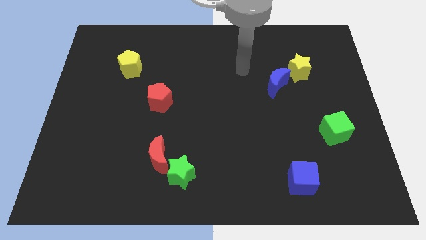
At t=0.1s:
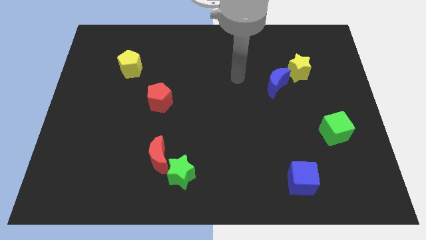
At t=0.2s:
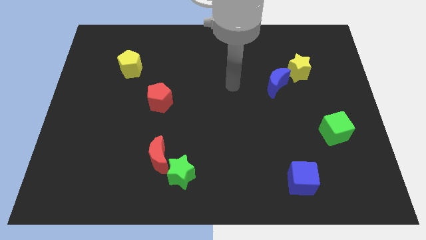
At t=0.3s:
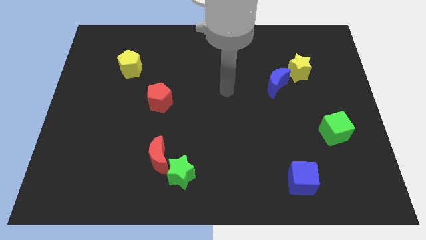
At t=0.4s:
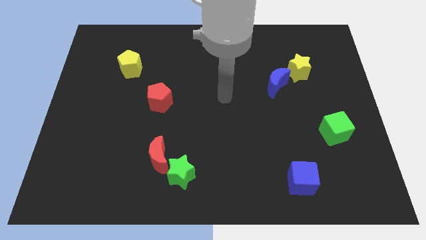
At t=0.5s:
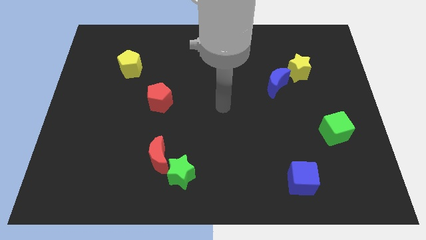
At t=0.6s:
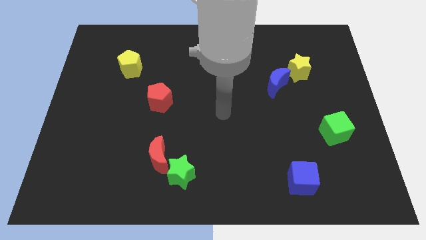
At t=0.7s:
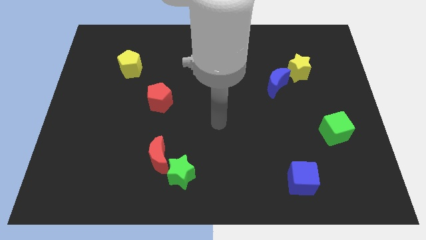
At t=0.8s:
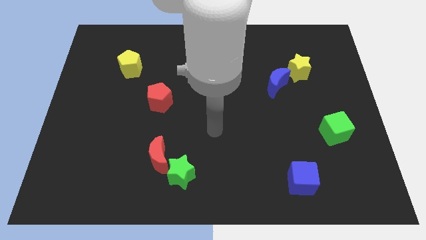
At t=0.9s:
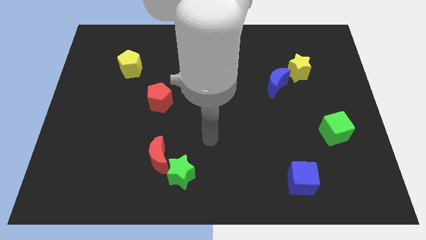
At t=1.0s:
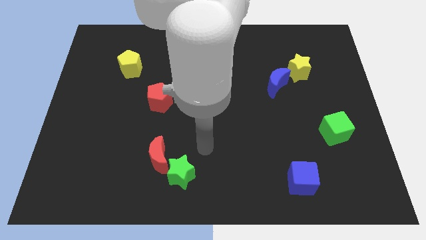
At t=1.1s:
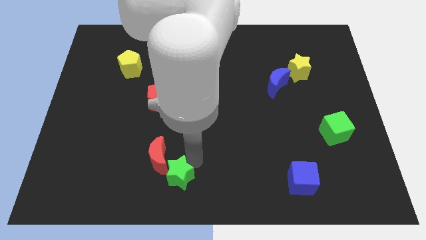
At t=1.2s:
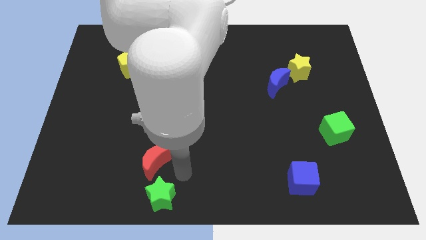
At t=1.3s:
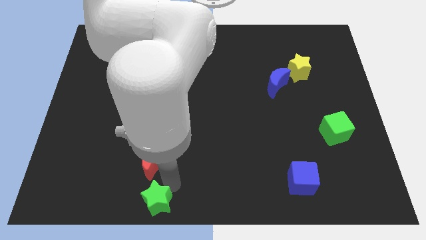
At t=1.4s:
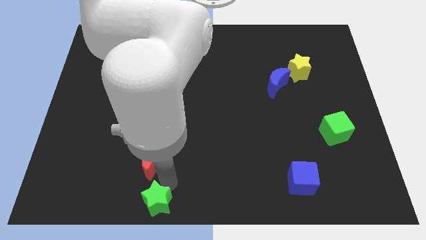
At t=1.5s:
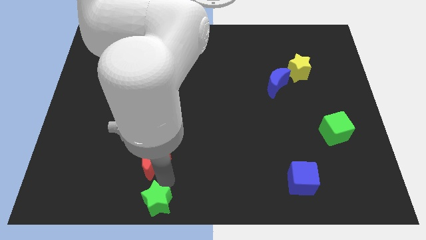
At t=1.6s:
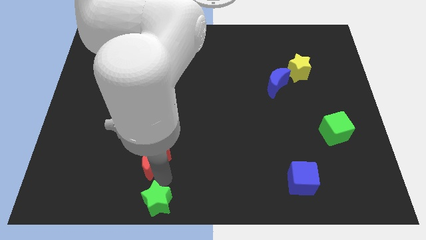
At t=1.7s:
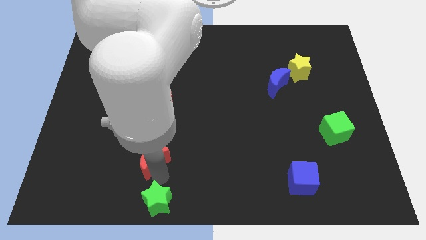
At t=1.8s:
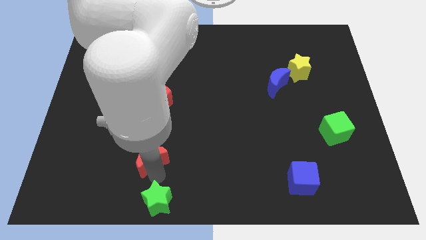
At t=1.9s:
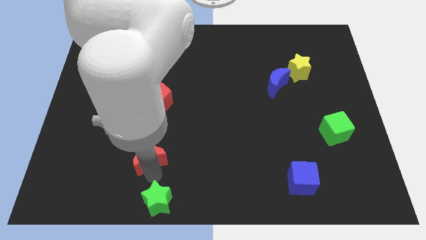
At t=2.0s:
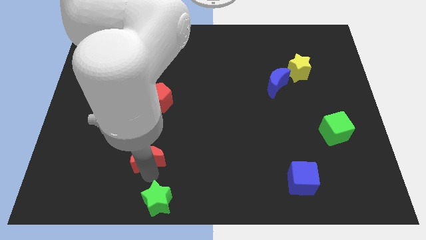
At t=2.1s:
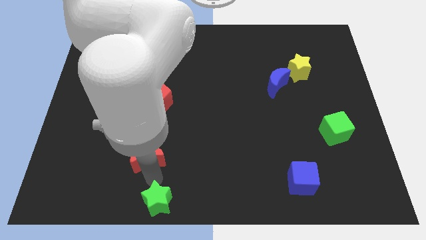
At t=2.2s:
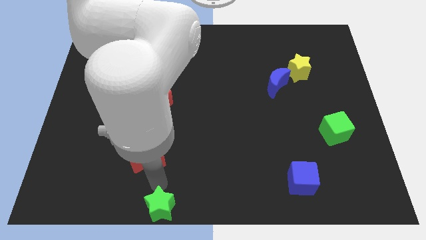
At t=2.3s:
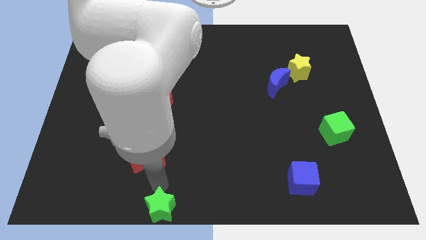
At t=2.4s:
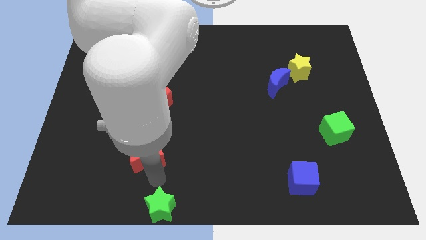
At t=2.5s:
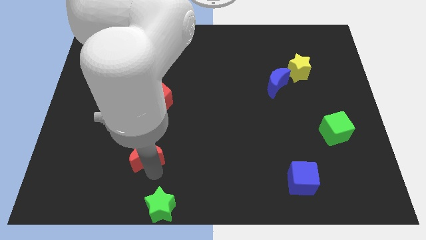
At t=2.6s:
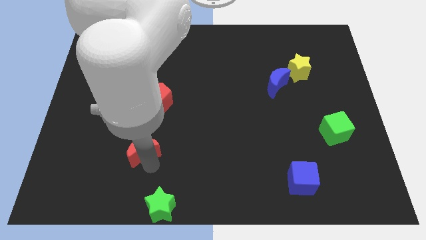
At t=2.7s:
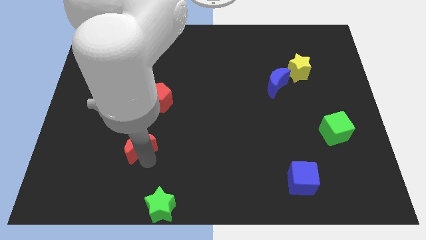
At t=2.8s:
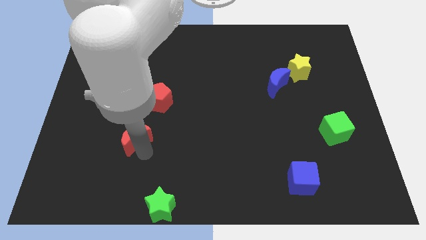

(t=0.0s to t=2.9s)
move the red moon diagonally upwards and left a bit

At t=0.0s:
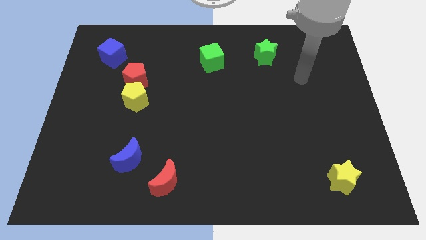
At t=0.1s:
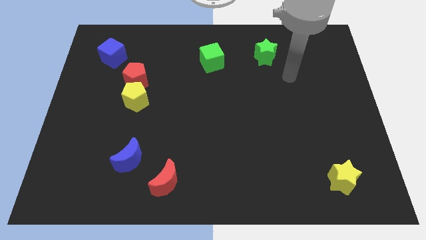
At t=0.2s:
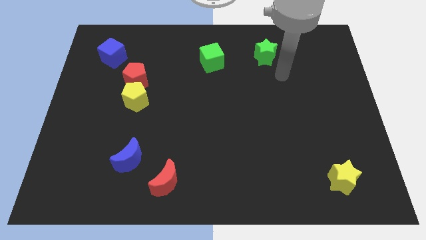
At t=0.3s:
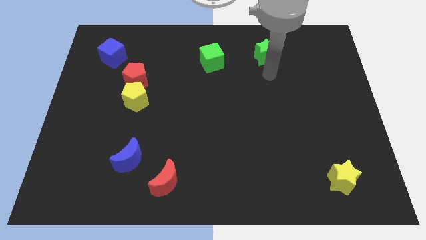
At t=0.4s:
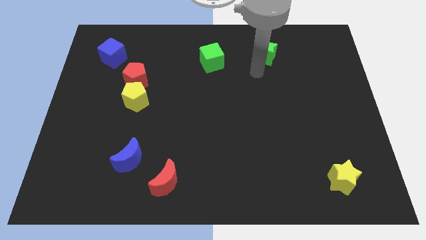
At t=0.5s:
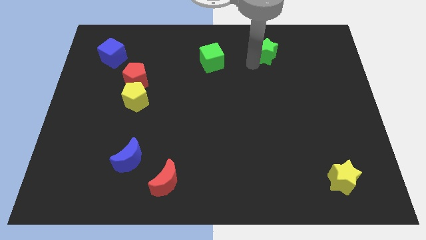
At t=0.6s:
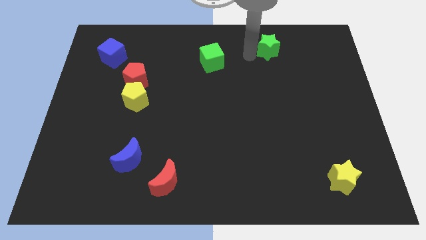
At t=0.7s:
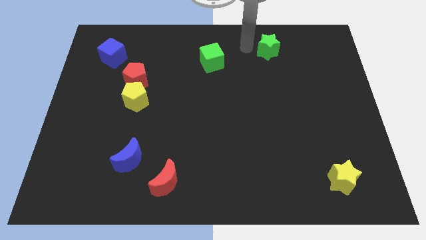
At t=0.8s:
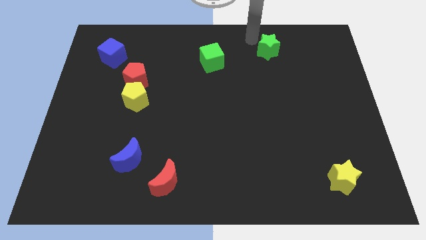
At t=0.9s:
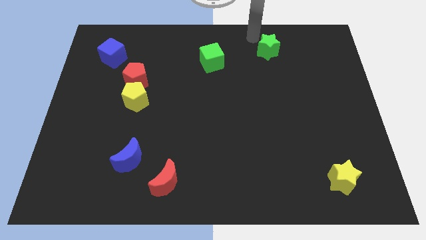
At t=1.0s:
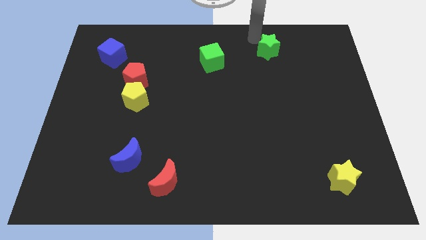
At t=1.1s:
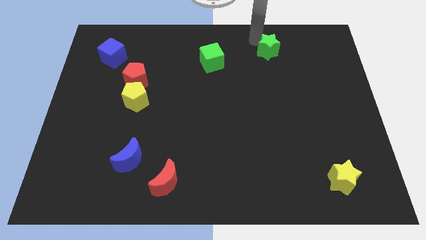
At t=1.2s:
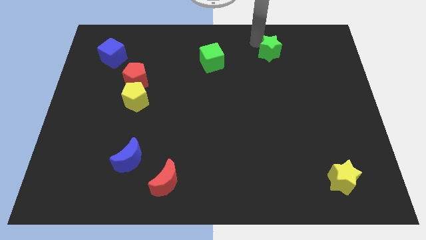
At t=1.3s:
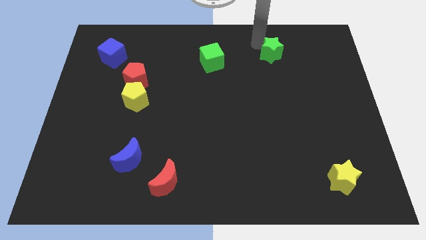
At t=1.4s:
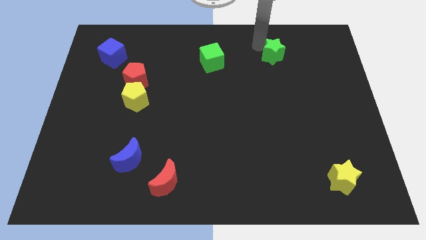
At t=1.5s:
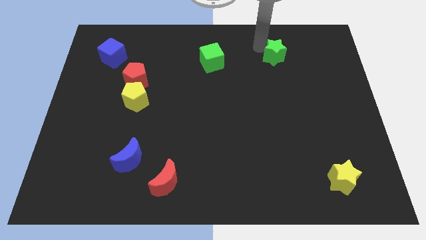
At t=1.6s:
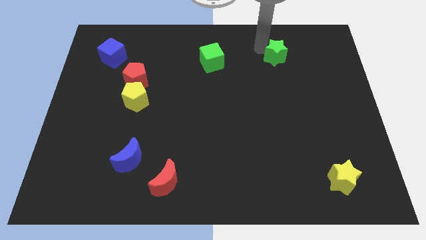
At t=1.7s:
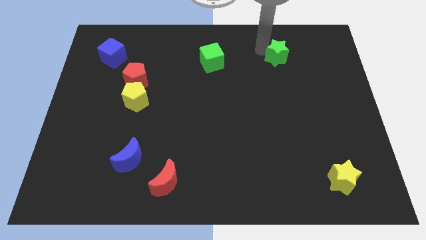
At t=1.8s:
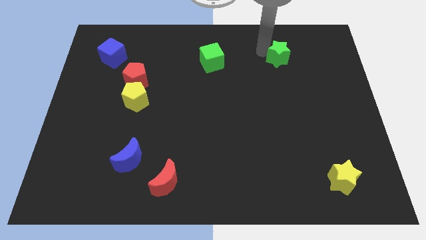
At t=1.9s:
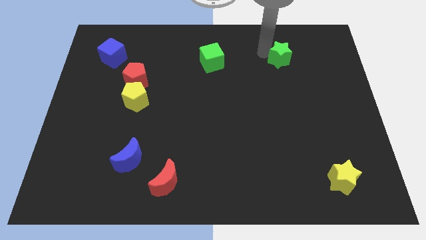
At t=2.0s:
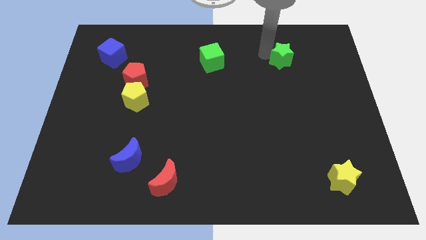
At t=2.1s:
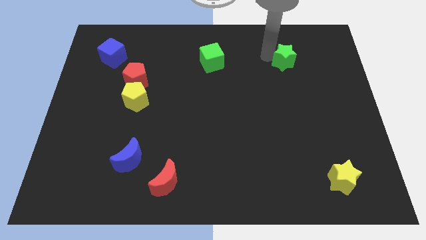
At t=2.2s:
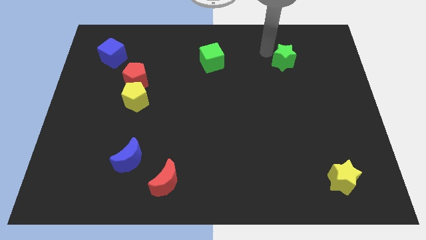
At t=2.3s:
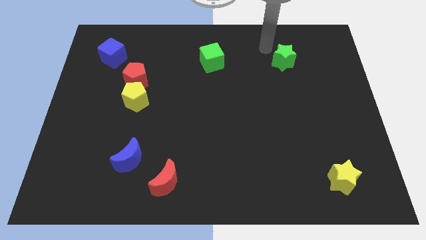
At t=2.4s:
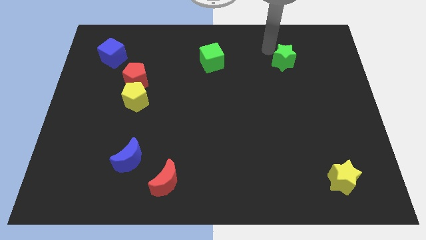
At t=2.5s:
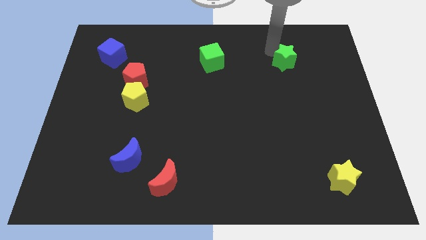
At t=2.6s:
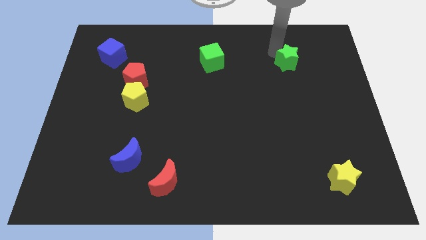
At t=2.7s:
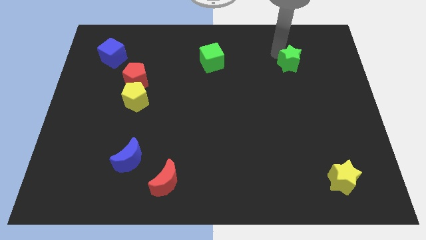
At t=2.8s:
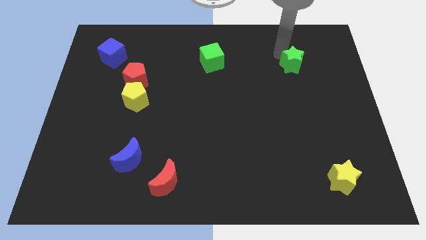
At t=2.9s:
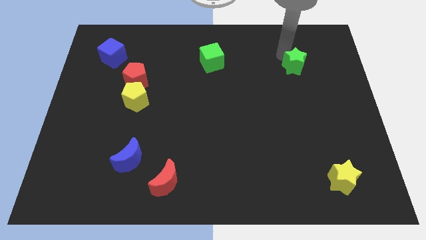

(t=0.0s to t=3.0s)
push the green star slightly diagonally downwards and to the right

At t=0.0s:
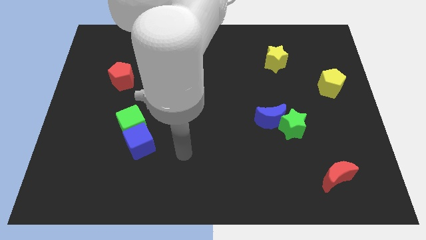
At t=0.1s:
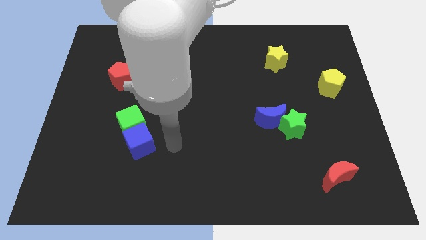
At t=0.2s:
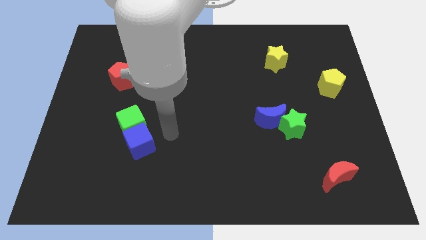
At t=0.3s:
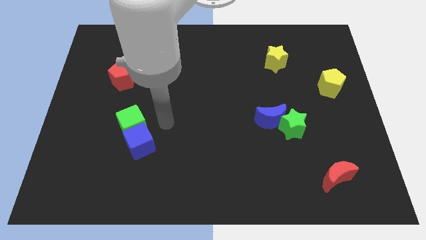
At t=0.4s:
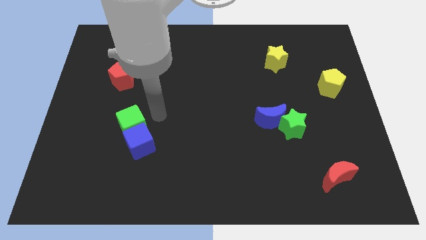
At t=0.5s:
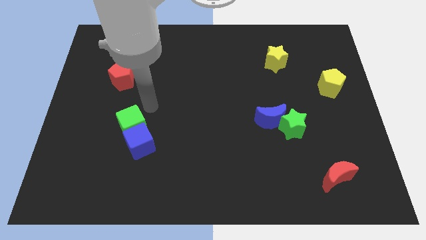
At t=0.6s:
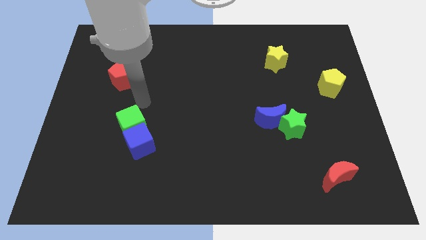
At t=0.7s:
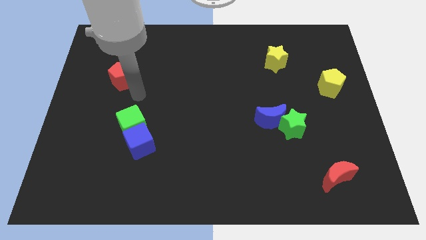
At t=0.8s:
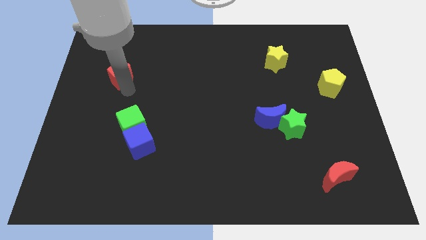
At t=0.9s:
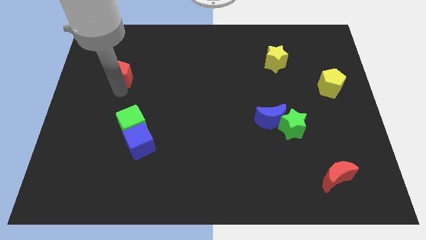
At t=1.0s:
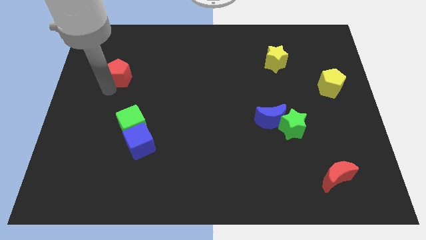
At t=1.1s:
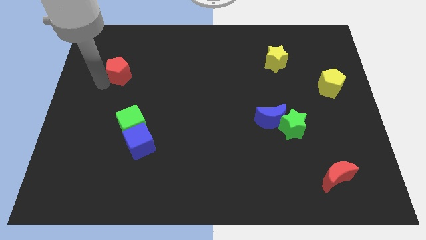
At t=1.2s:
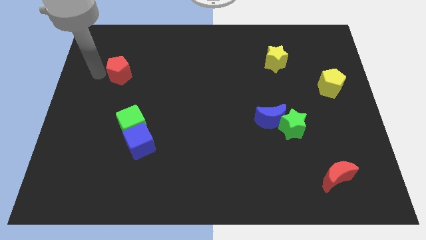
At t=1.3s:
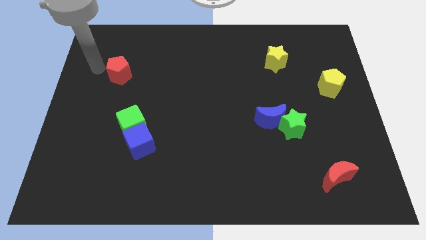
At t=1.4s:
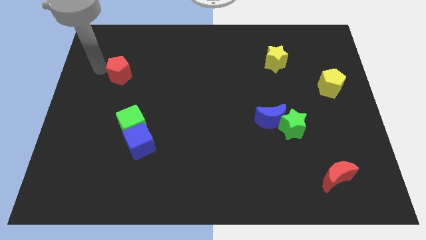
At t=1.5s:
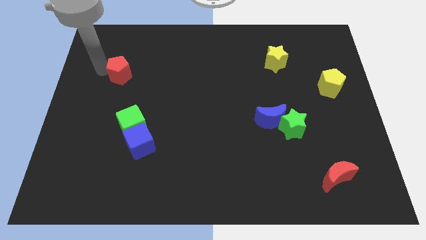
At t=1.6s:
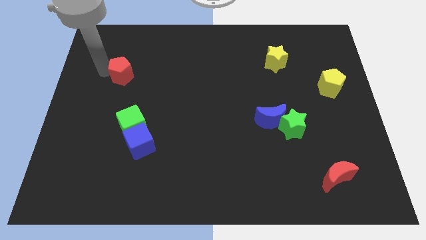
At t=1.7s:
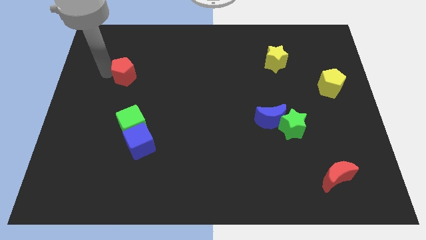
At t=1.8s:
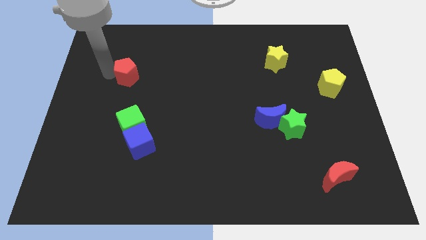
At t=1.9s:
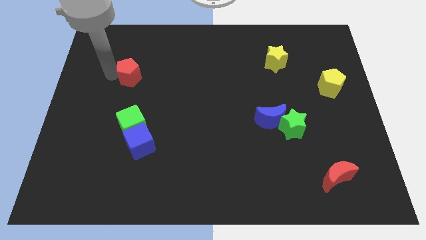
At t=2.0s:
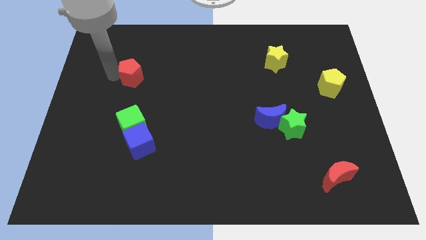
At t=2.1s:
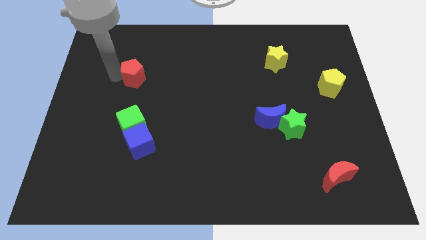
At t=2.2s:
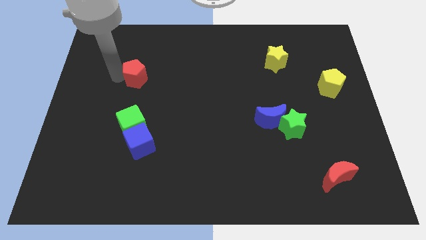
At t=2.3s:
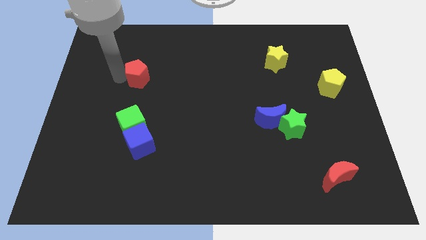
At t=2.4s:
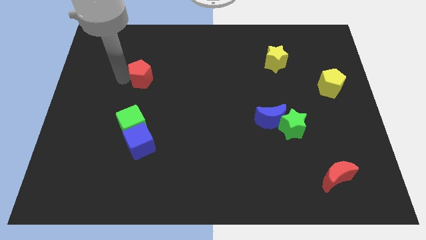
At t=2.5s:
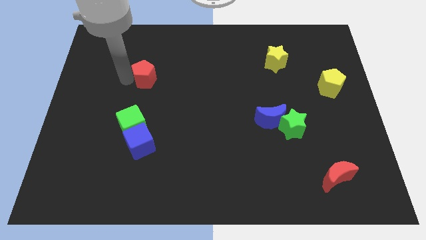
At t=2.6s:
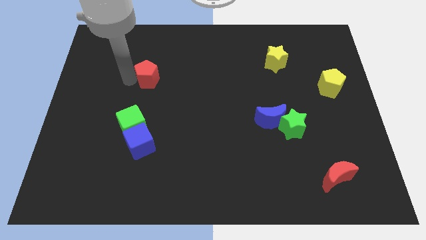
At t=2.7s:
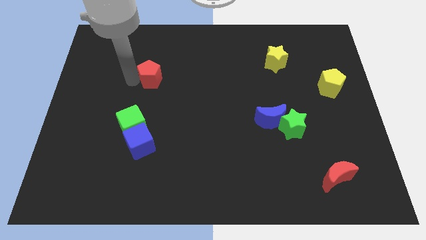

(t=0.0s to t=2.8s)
push the red pentagon right slightly
